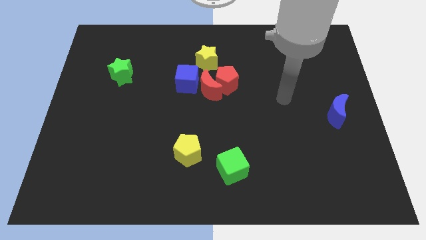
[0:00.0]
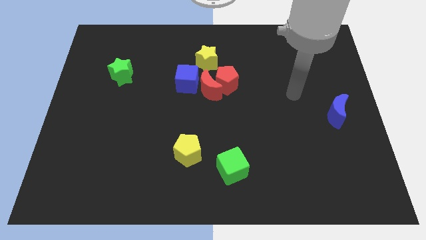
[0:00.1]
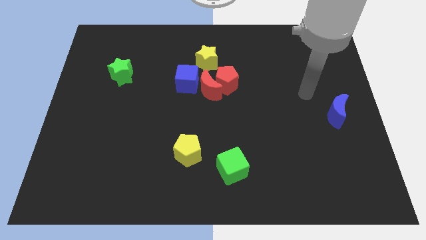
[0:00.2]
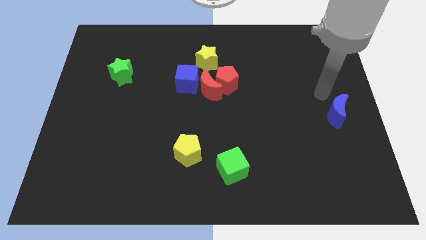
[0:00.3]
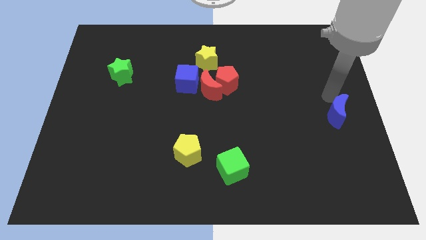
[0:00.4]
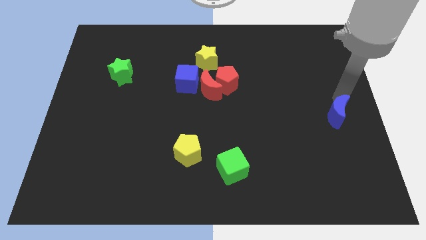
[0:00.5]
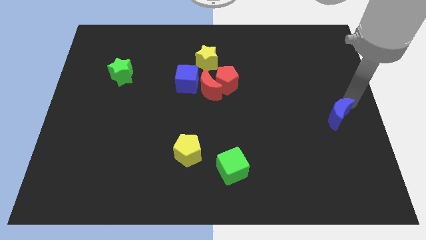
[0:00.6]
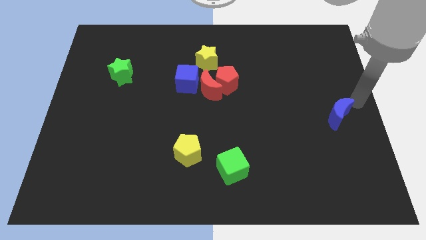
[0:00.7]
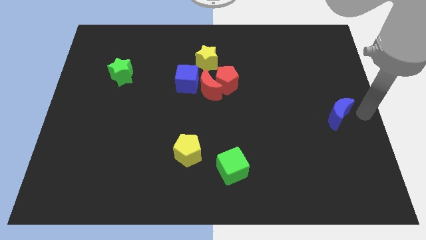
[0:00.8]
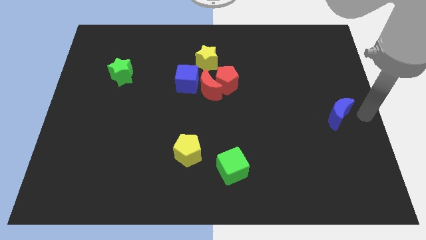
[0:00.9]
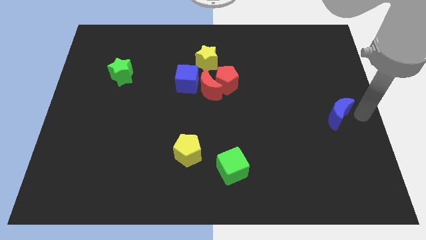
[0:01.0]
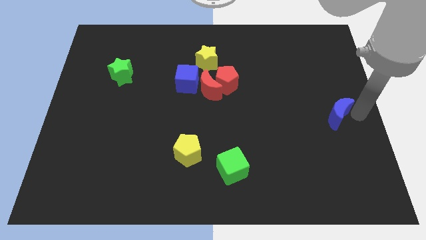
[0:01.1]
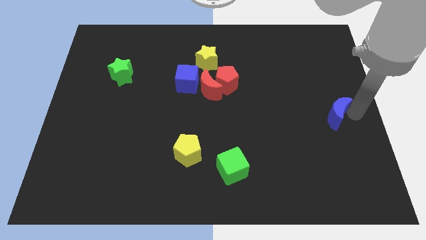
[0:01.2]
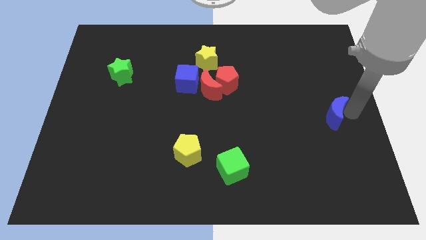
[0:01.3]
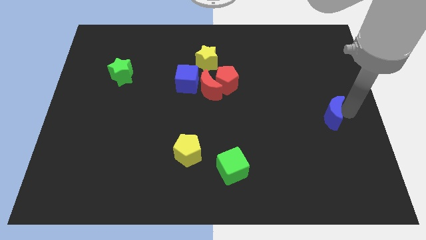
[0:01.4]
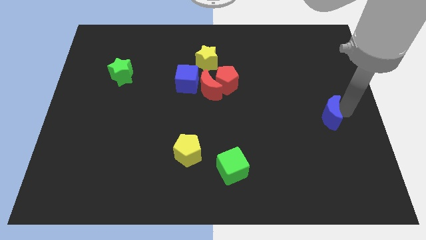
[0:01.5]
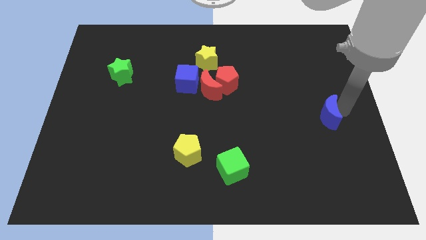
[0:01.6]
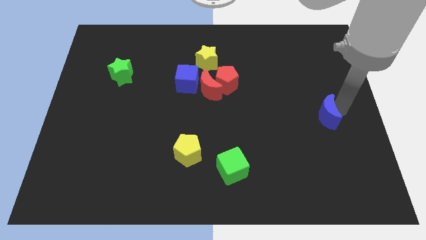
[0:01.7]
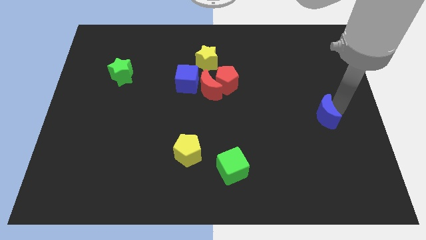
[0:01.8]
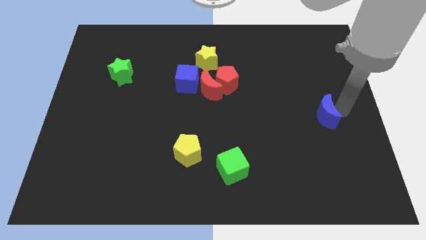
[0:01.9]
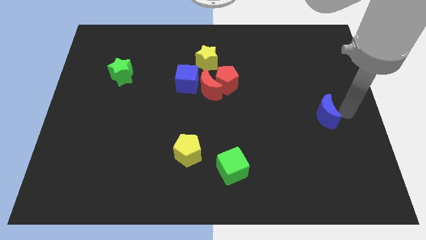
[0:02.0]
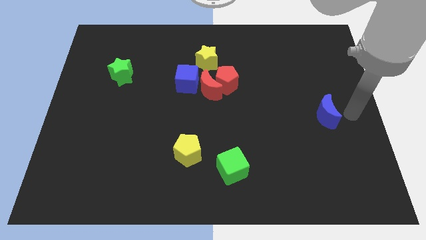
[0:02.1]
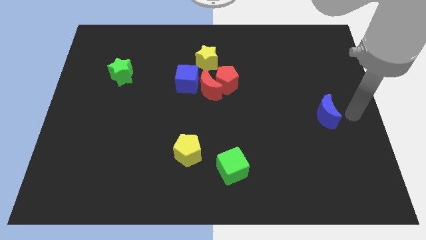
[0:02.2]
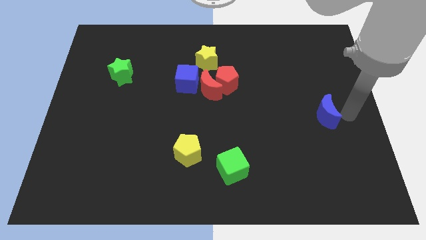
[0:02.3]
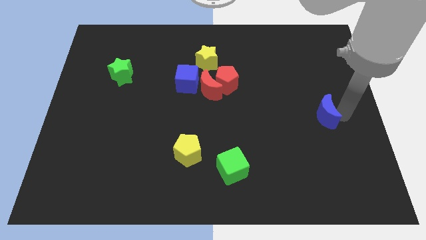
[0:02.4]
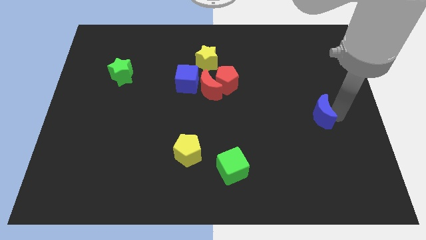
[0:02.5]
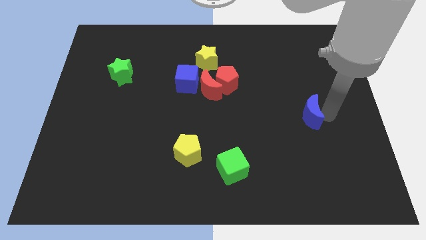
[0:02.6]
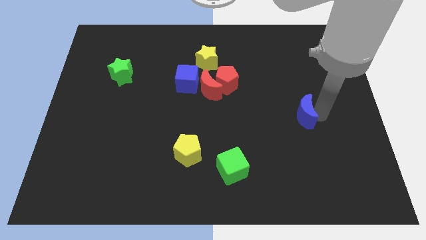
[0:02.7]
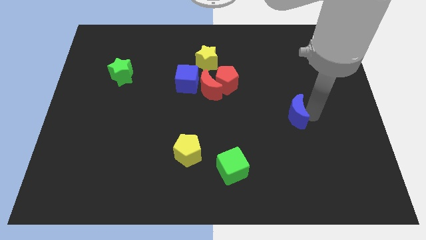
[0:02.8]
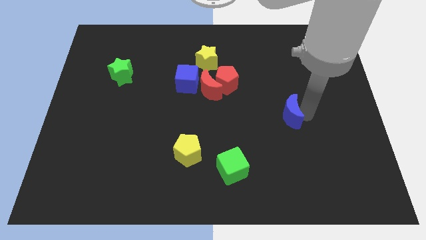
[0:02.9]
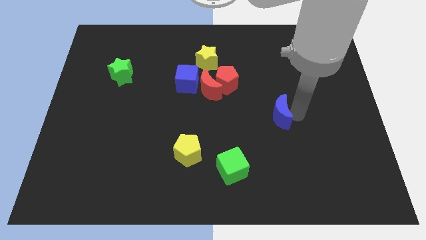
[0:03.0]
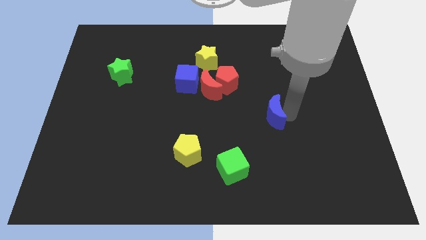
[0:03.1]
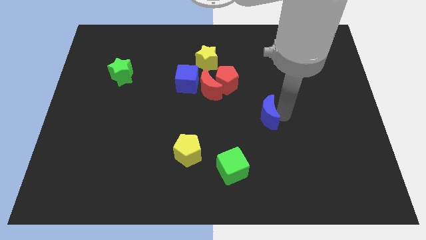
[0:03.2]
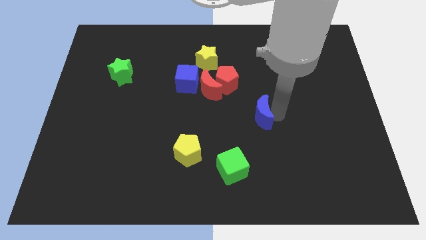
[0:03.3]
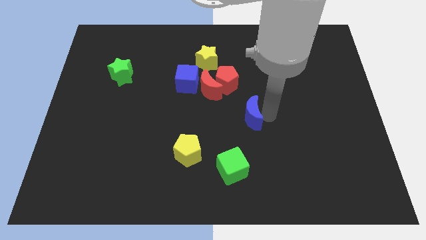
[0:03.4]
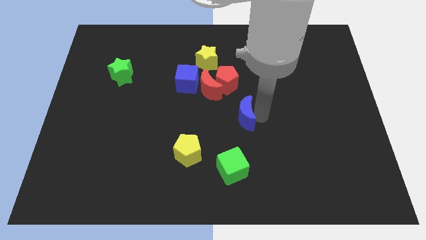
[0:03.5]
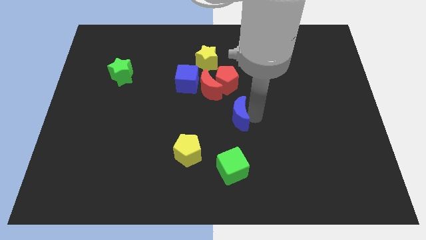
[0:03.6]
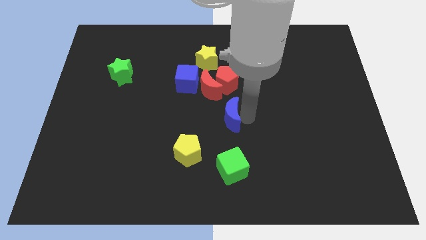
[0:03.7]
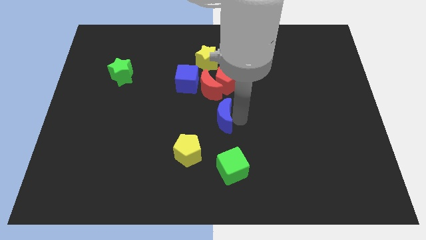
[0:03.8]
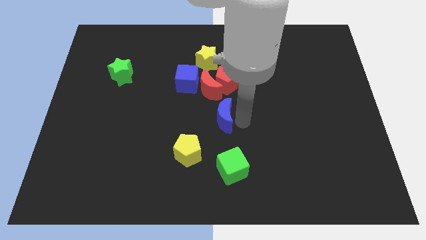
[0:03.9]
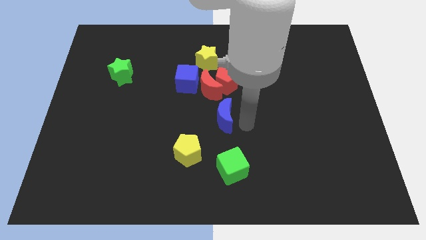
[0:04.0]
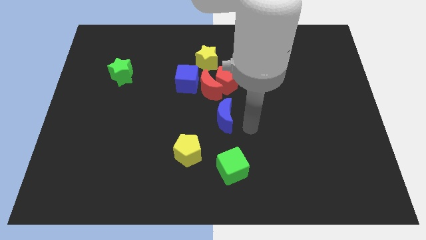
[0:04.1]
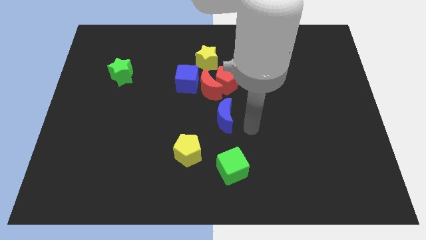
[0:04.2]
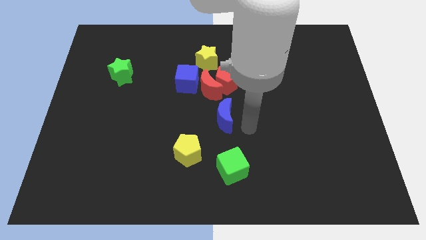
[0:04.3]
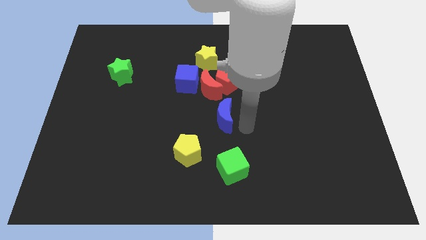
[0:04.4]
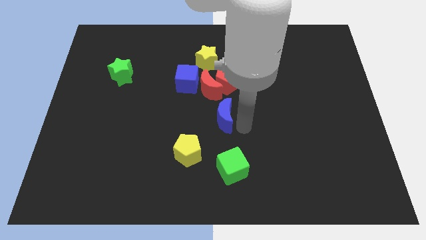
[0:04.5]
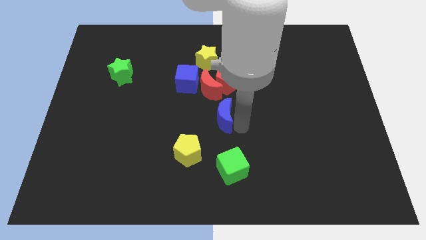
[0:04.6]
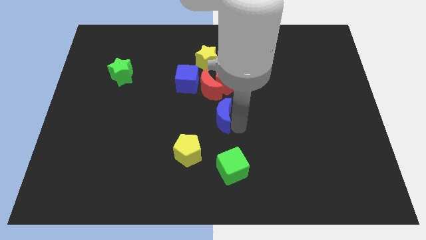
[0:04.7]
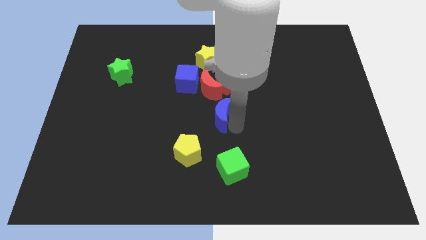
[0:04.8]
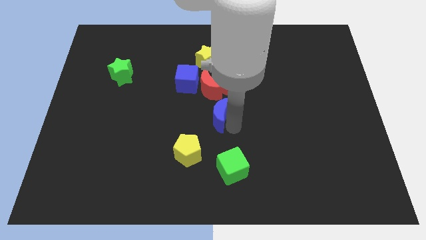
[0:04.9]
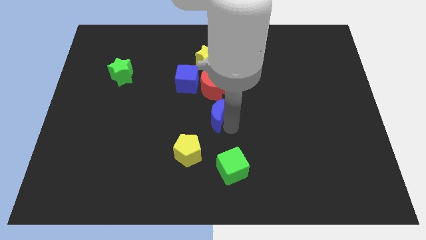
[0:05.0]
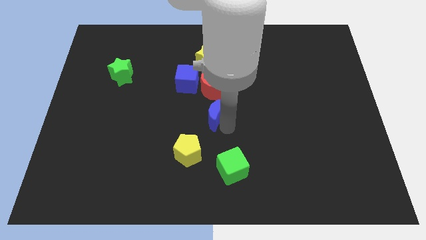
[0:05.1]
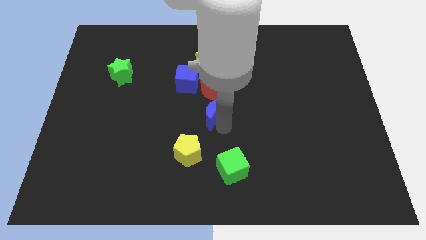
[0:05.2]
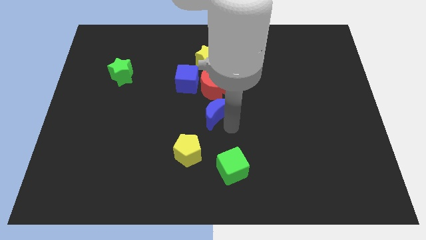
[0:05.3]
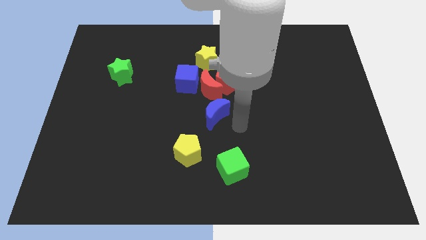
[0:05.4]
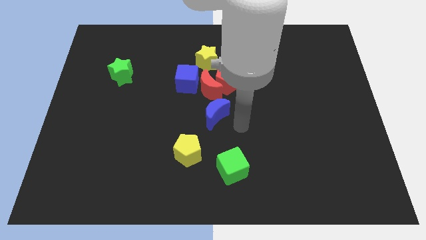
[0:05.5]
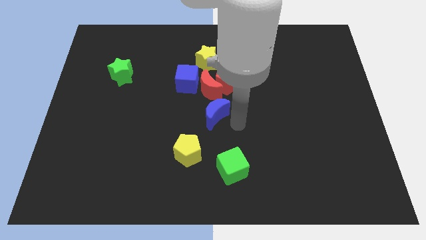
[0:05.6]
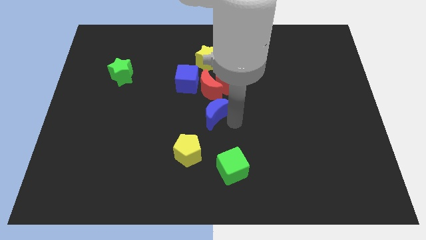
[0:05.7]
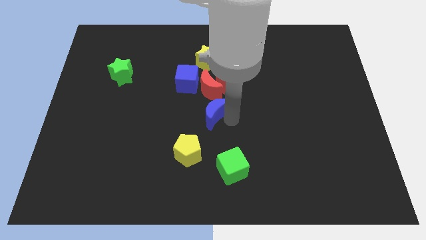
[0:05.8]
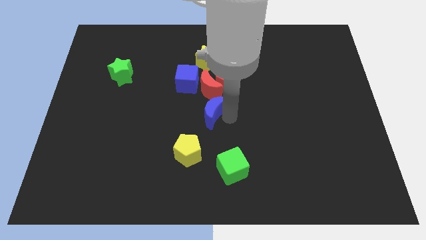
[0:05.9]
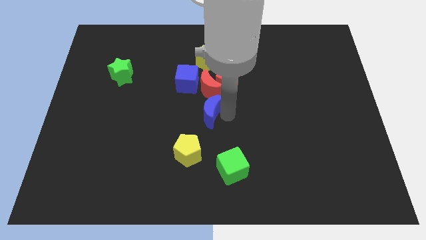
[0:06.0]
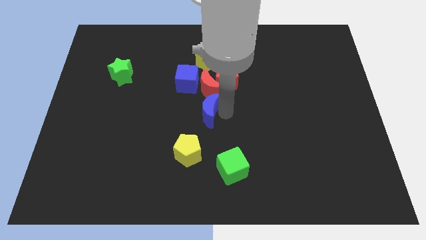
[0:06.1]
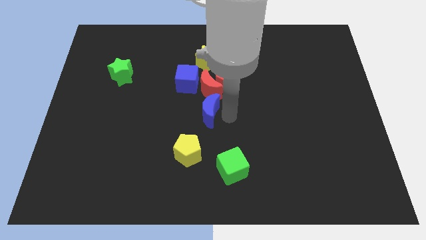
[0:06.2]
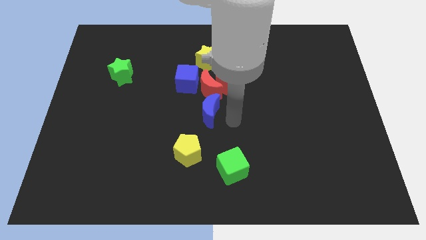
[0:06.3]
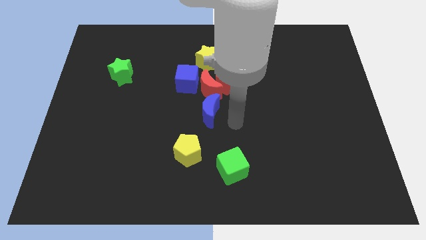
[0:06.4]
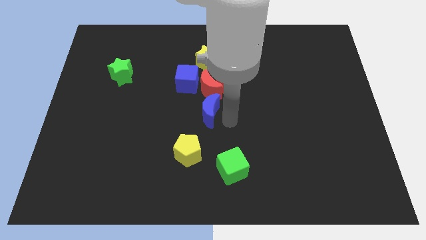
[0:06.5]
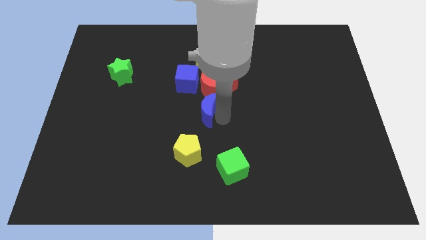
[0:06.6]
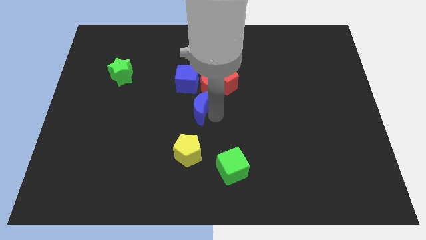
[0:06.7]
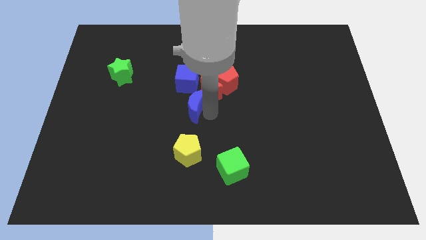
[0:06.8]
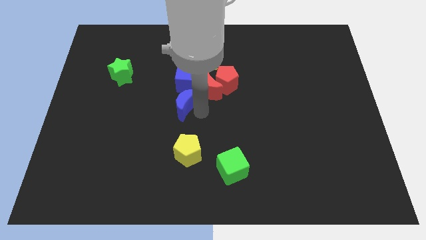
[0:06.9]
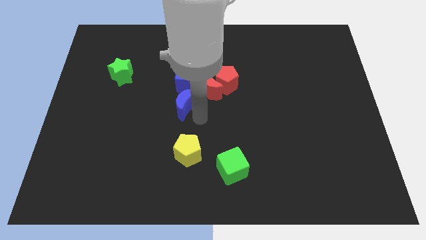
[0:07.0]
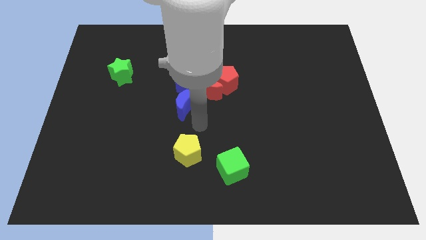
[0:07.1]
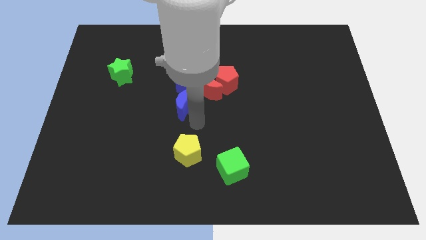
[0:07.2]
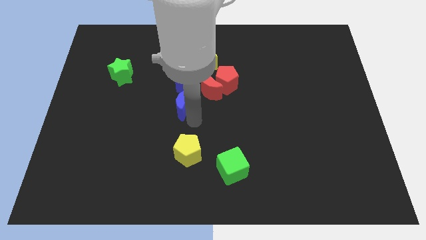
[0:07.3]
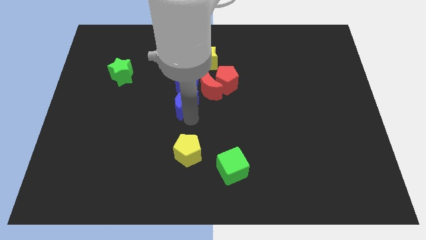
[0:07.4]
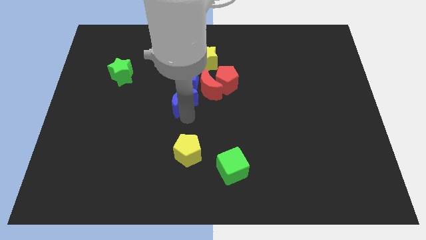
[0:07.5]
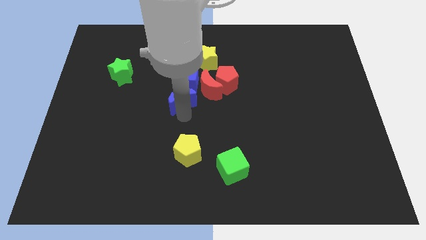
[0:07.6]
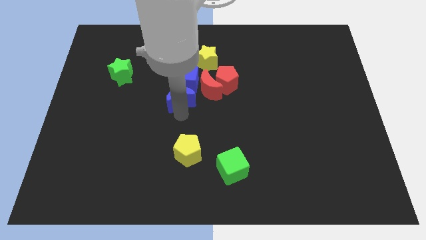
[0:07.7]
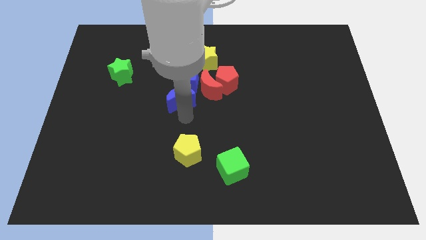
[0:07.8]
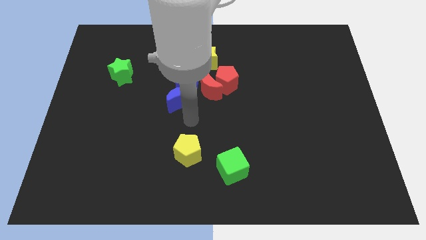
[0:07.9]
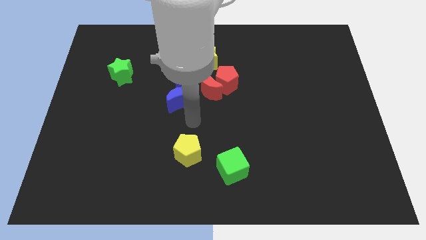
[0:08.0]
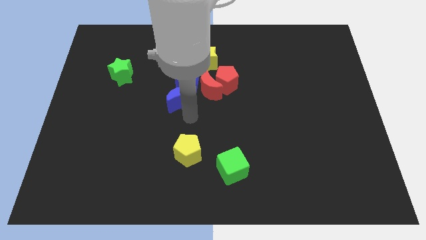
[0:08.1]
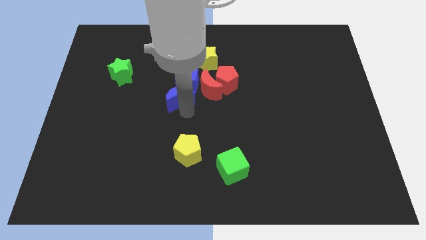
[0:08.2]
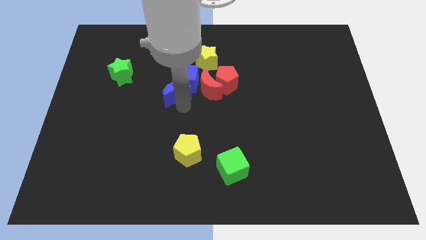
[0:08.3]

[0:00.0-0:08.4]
slide the blue moon just left of the red pentagon
